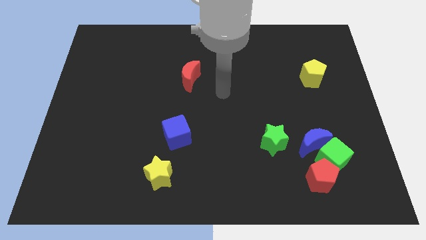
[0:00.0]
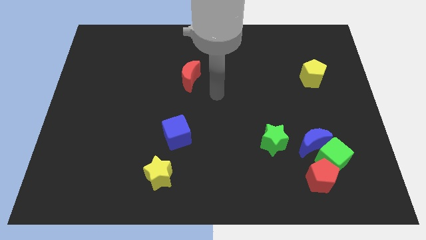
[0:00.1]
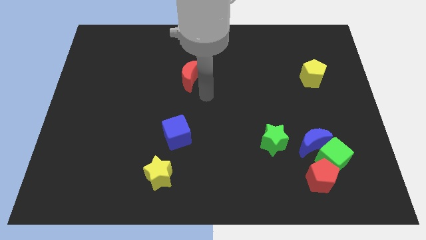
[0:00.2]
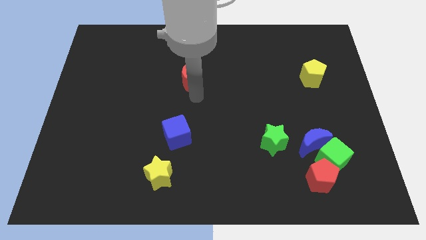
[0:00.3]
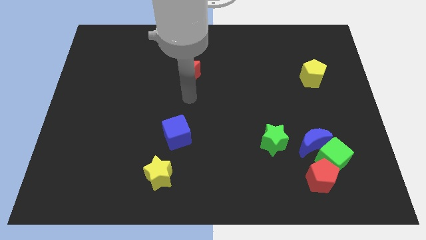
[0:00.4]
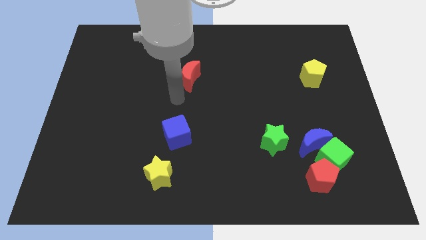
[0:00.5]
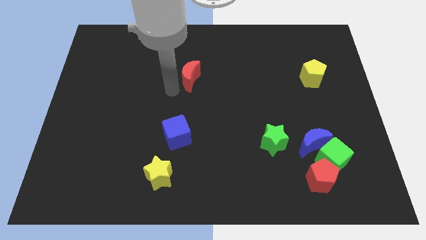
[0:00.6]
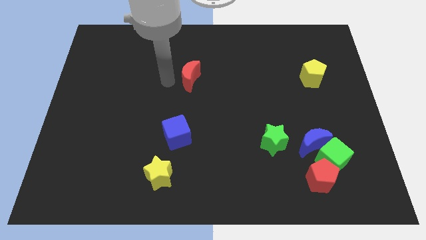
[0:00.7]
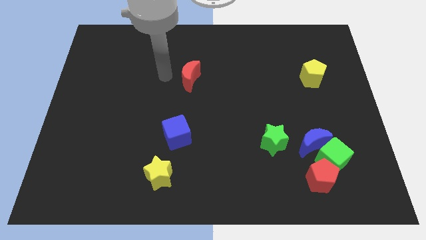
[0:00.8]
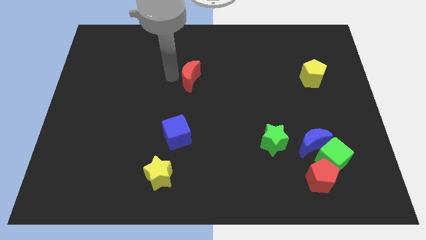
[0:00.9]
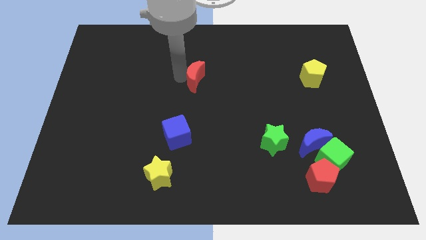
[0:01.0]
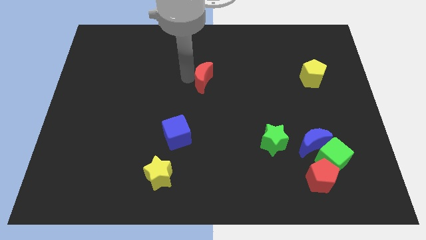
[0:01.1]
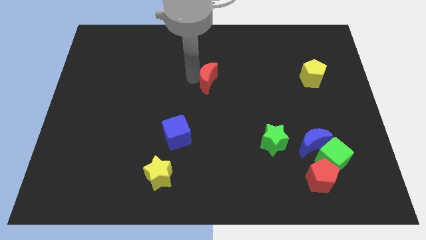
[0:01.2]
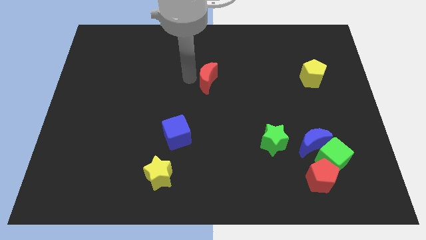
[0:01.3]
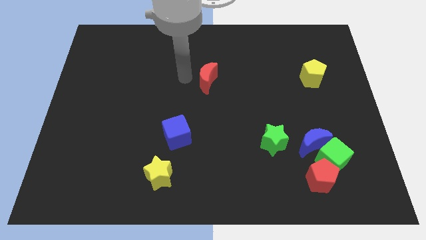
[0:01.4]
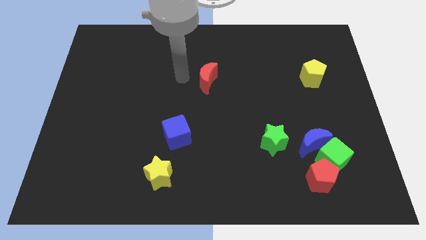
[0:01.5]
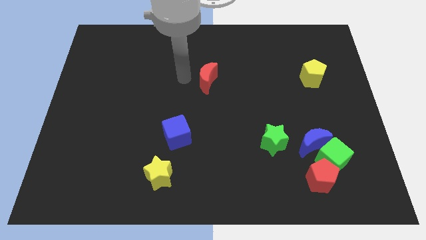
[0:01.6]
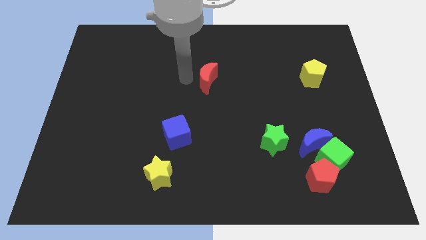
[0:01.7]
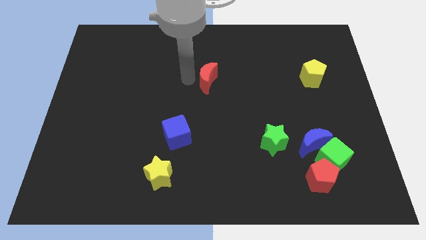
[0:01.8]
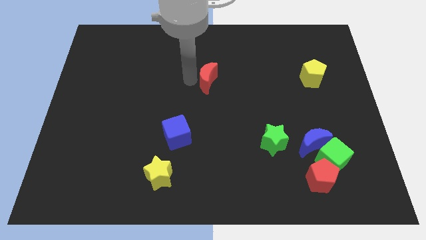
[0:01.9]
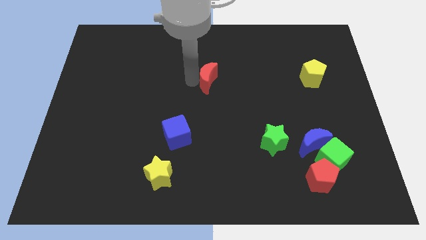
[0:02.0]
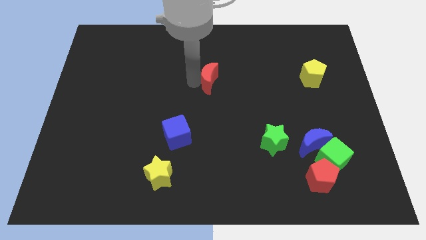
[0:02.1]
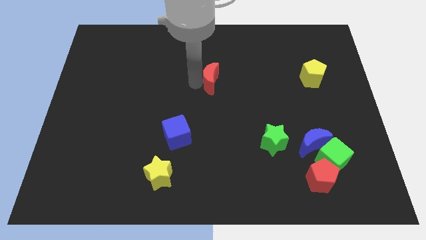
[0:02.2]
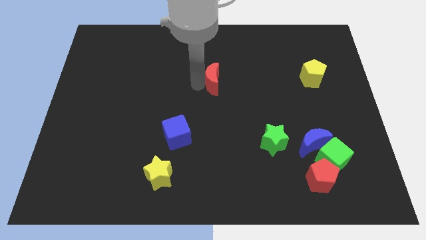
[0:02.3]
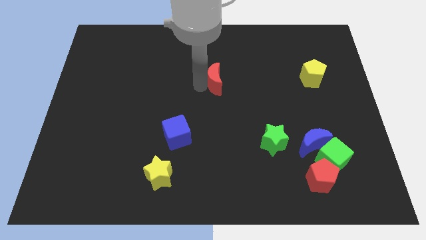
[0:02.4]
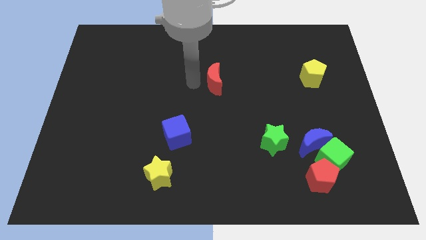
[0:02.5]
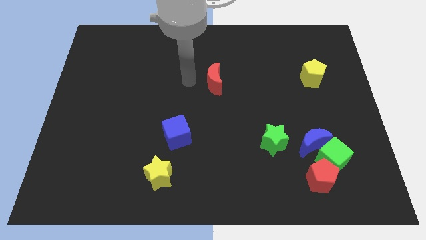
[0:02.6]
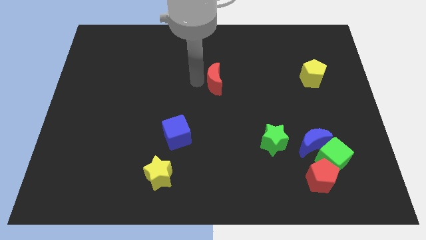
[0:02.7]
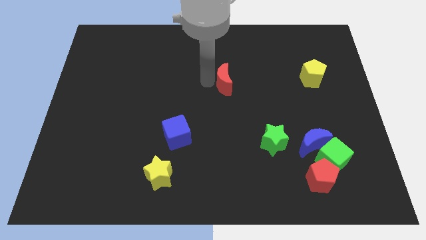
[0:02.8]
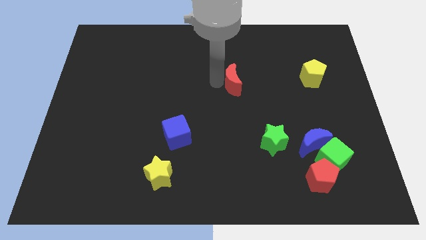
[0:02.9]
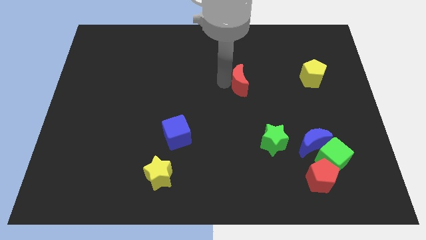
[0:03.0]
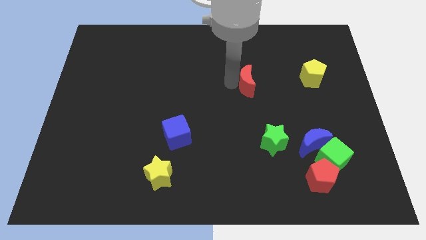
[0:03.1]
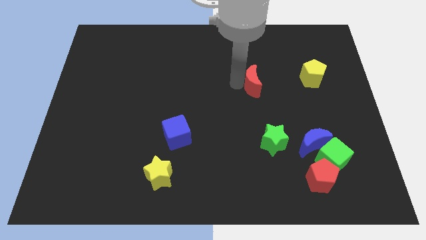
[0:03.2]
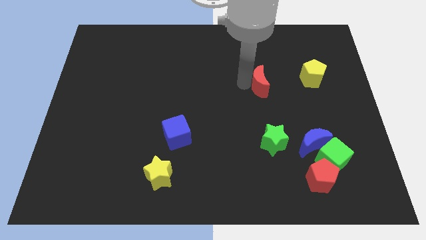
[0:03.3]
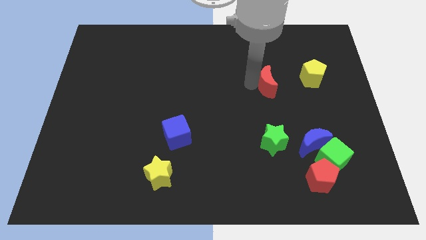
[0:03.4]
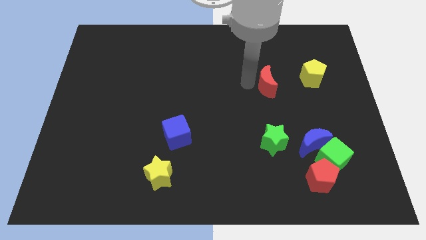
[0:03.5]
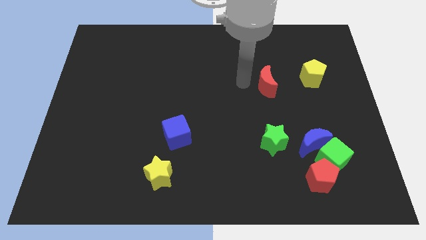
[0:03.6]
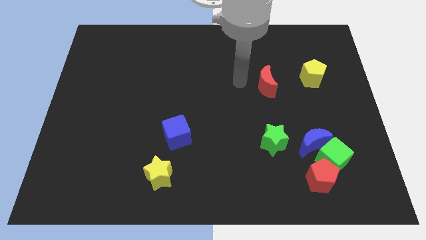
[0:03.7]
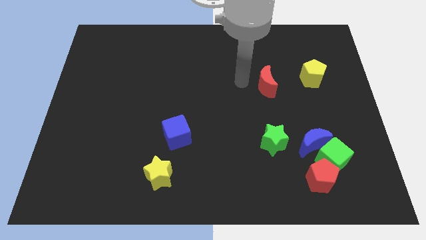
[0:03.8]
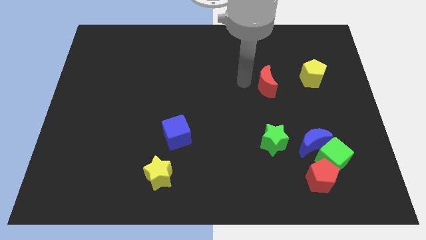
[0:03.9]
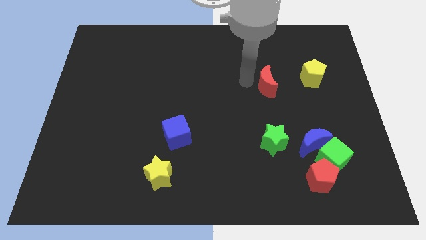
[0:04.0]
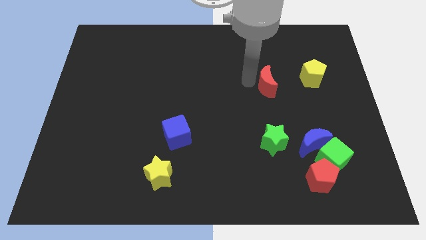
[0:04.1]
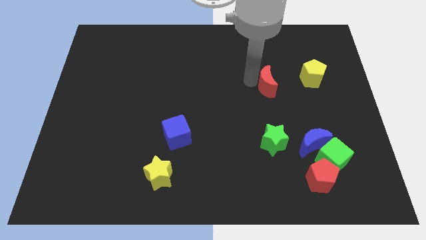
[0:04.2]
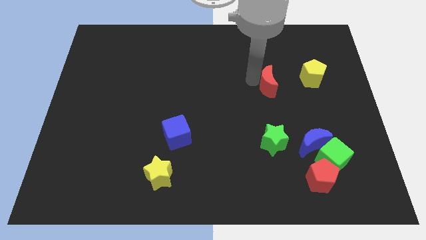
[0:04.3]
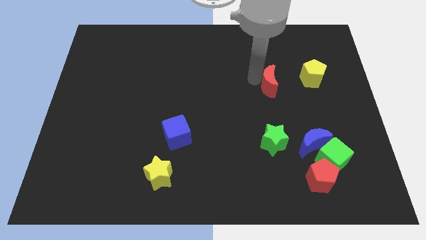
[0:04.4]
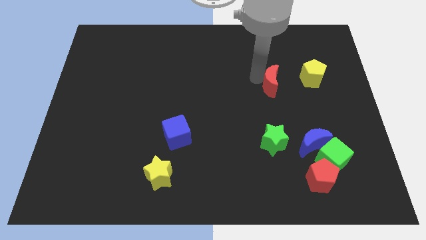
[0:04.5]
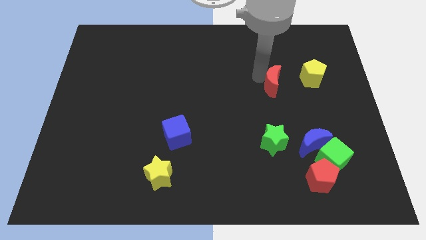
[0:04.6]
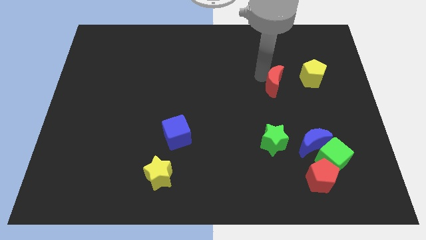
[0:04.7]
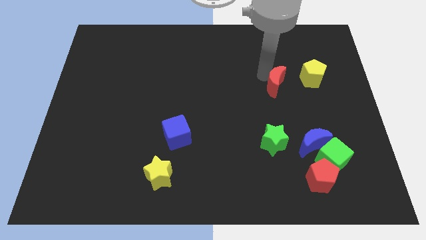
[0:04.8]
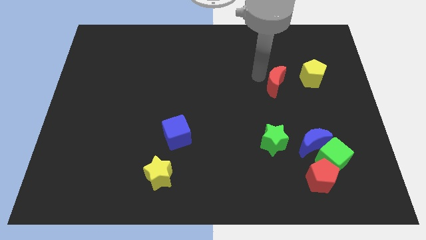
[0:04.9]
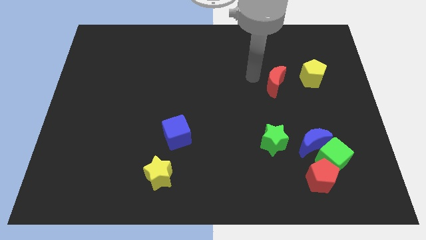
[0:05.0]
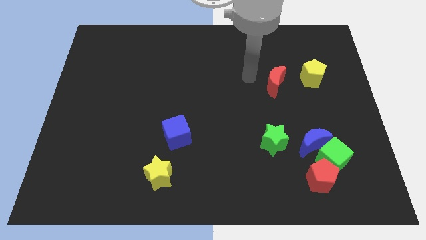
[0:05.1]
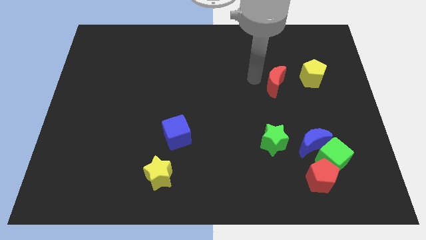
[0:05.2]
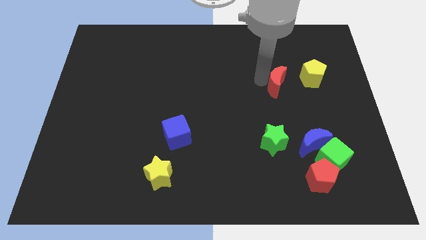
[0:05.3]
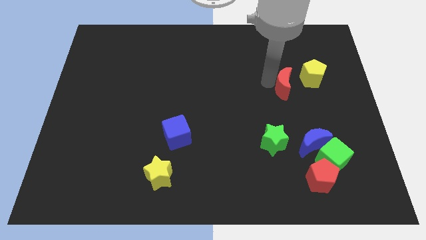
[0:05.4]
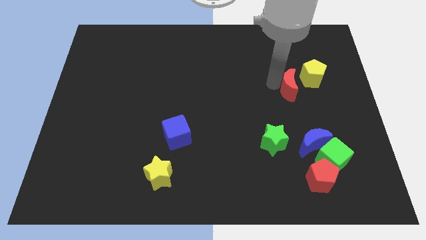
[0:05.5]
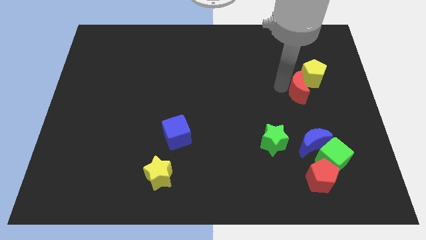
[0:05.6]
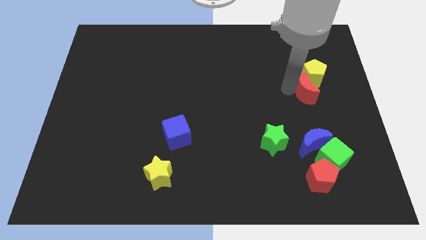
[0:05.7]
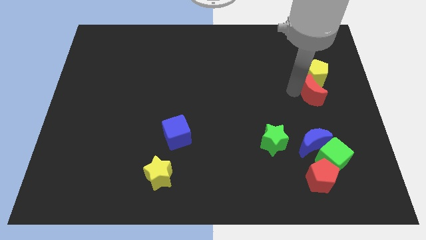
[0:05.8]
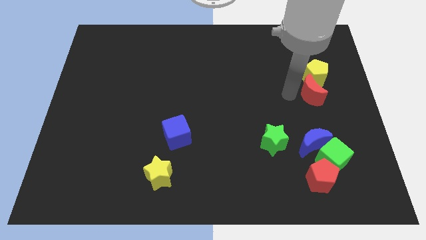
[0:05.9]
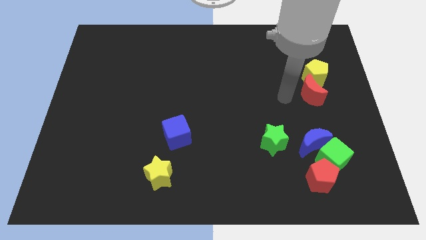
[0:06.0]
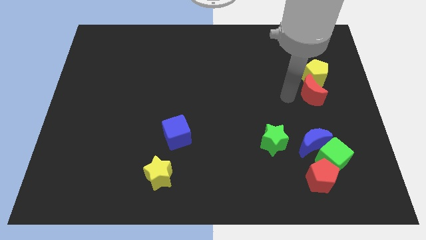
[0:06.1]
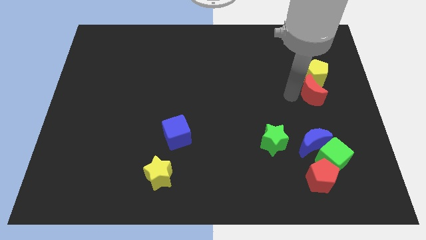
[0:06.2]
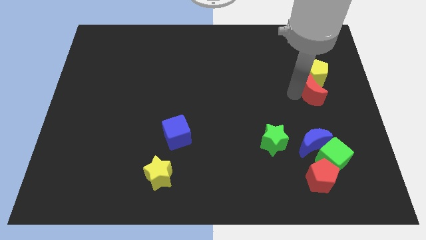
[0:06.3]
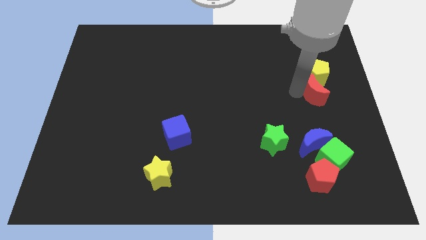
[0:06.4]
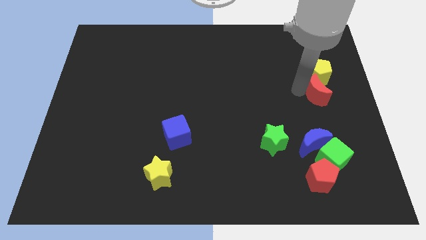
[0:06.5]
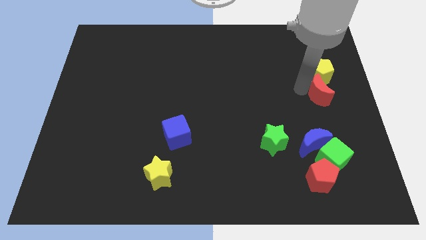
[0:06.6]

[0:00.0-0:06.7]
slide the red moon to the right side

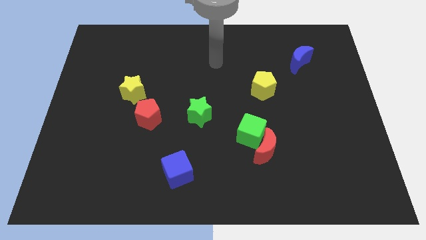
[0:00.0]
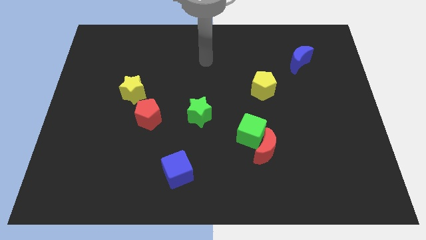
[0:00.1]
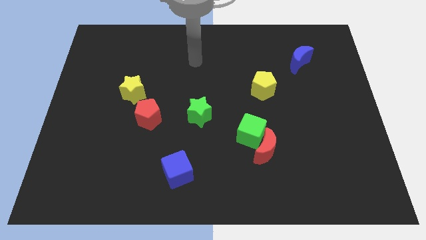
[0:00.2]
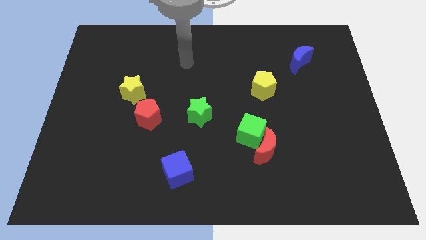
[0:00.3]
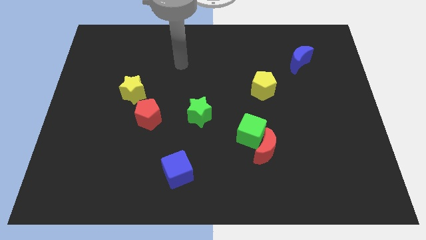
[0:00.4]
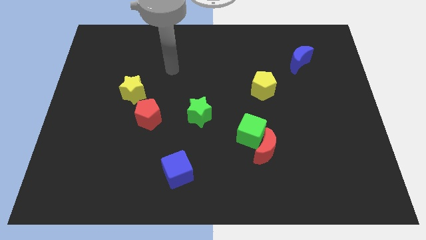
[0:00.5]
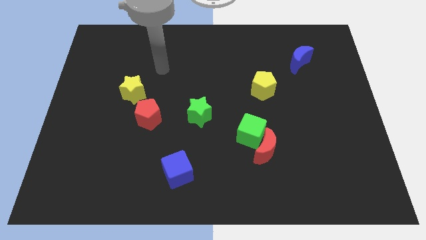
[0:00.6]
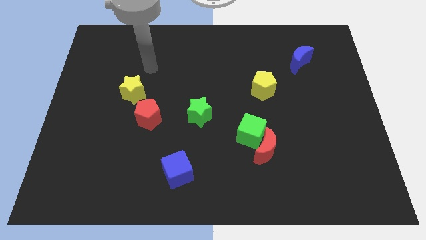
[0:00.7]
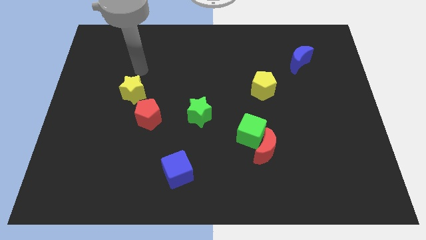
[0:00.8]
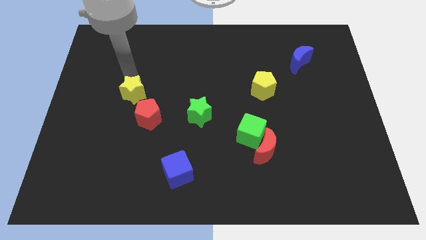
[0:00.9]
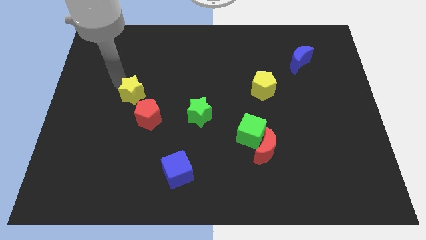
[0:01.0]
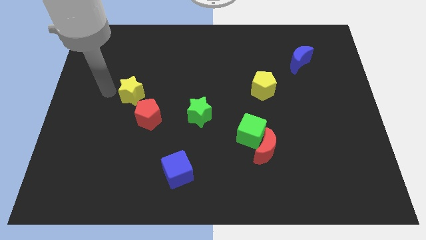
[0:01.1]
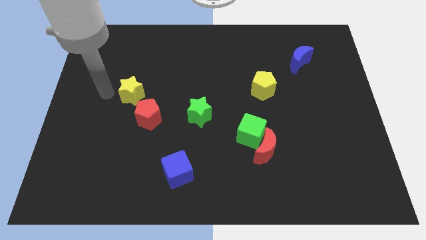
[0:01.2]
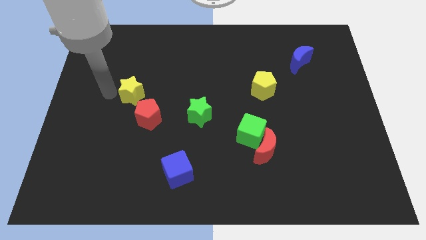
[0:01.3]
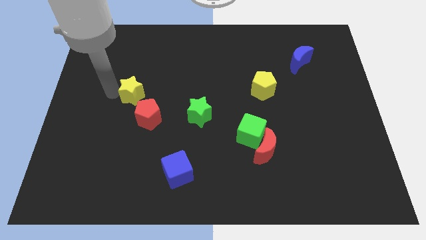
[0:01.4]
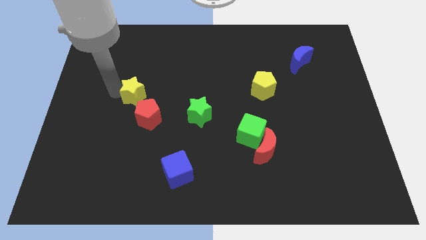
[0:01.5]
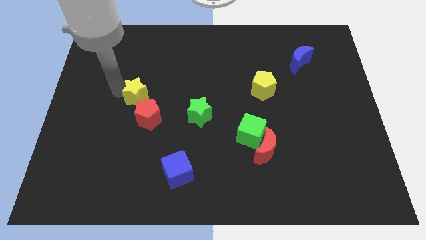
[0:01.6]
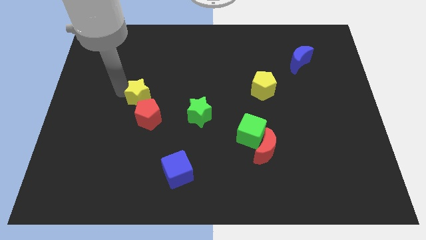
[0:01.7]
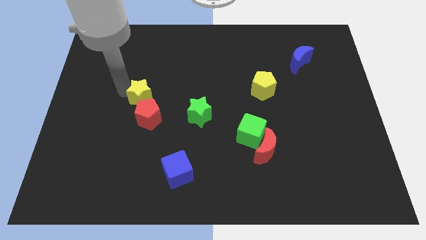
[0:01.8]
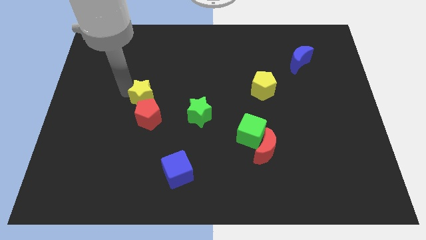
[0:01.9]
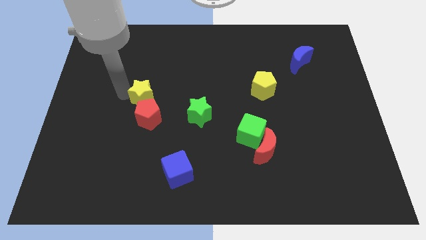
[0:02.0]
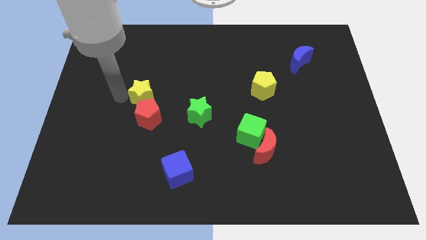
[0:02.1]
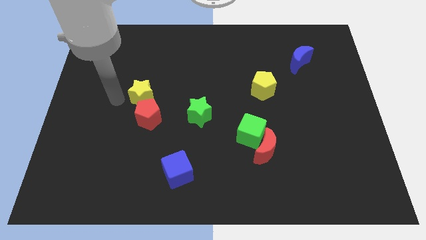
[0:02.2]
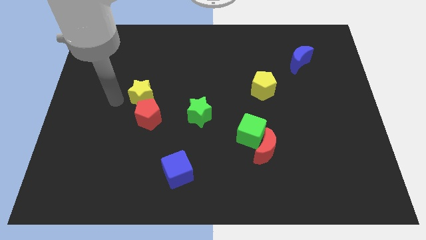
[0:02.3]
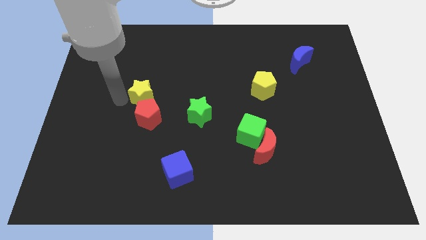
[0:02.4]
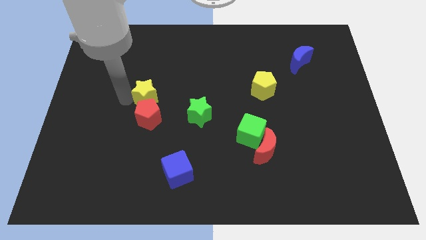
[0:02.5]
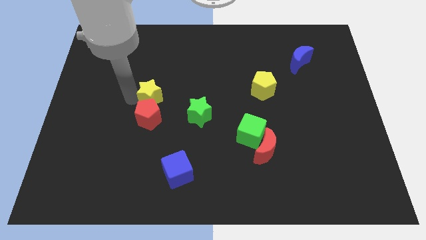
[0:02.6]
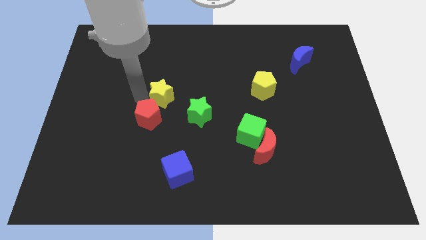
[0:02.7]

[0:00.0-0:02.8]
put the yellow star to the middle
